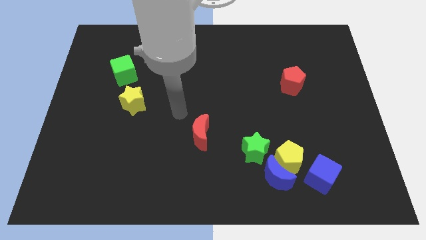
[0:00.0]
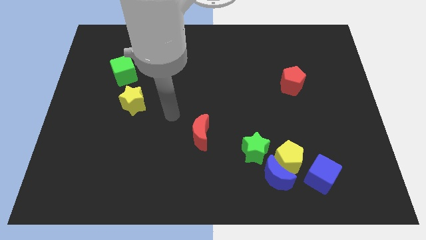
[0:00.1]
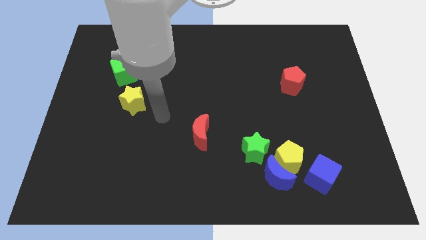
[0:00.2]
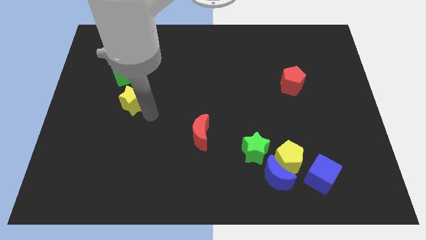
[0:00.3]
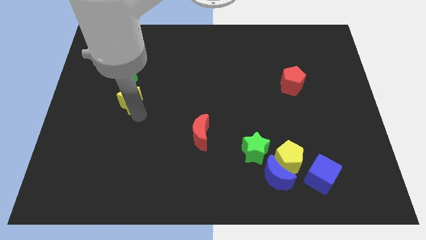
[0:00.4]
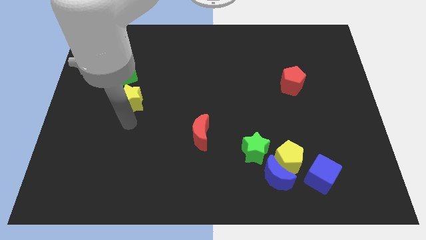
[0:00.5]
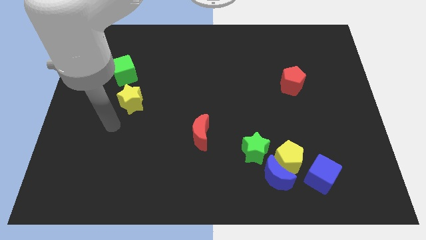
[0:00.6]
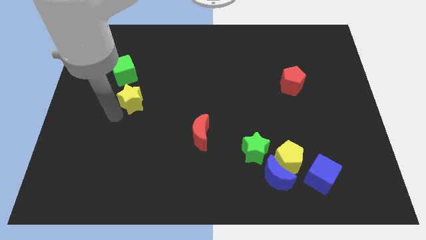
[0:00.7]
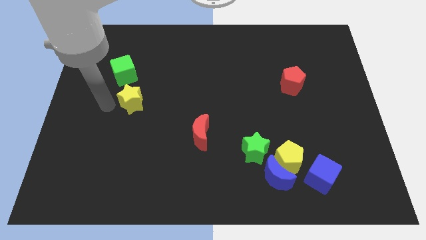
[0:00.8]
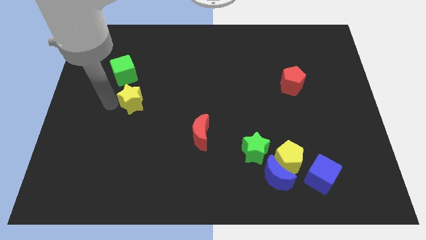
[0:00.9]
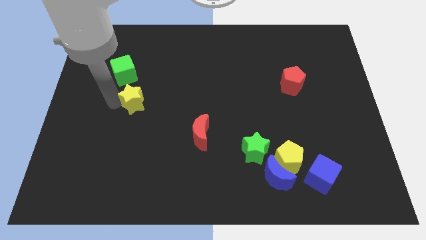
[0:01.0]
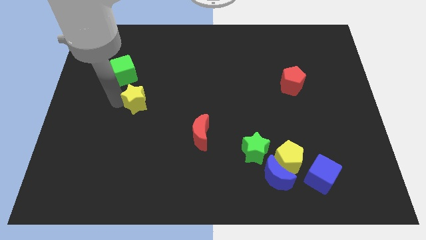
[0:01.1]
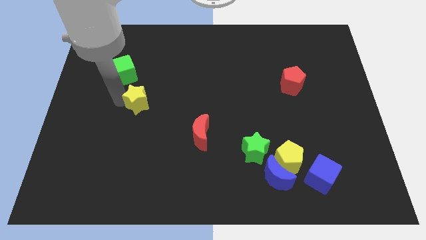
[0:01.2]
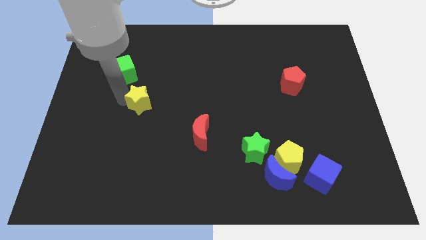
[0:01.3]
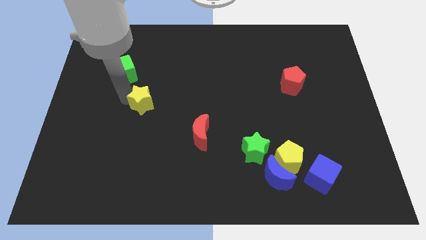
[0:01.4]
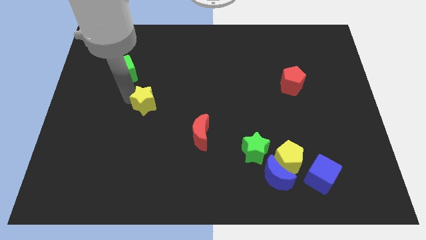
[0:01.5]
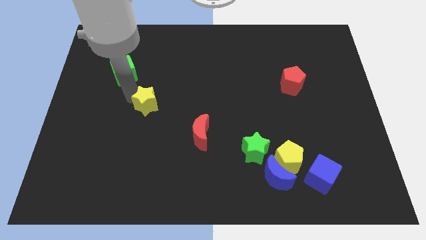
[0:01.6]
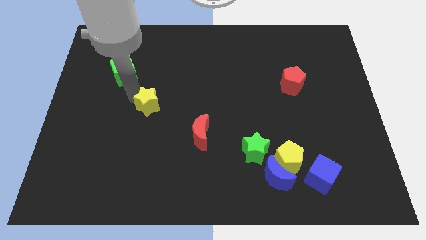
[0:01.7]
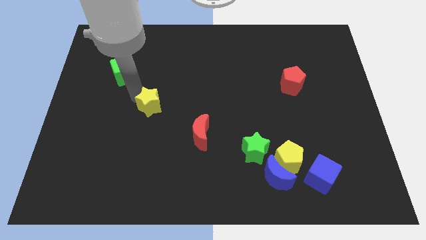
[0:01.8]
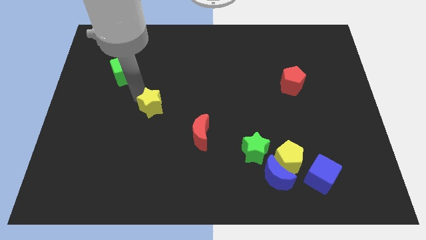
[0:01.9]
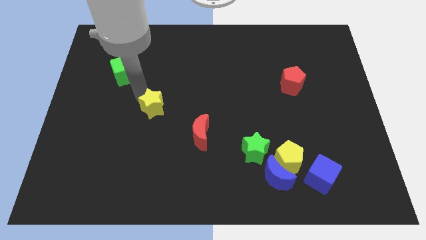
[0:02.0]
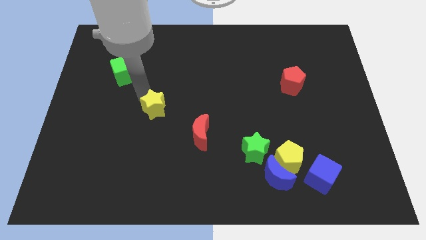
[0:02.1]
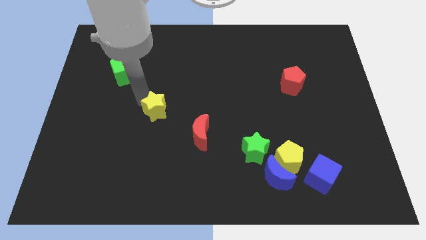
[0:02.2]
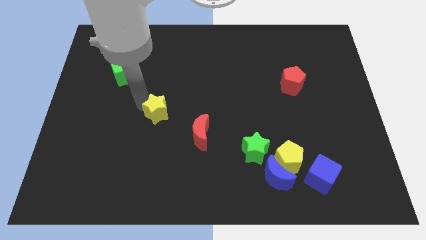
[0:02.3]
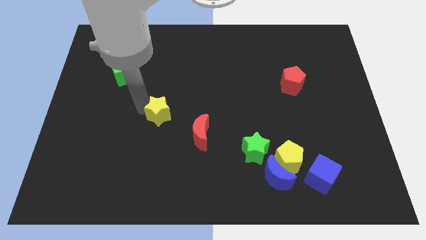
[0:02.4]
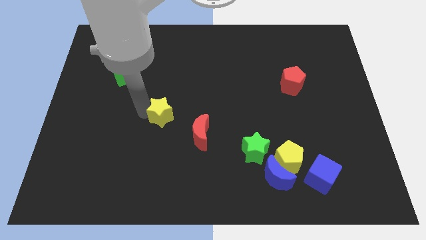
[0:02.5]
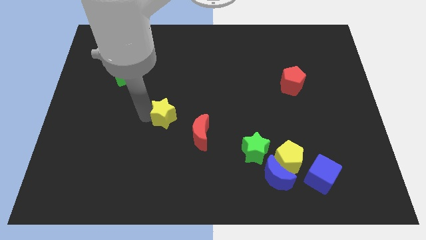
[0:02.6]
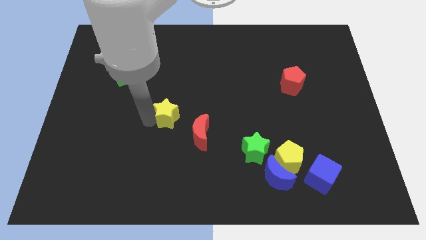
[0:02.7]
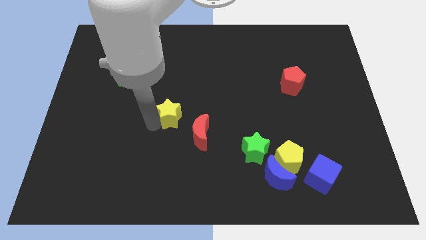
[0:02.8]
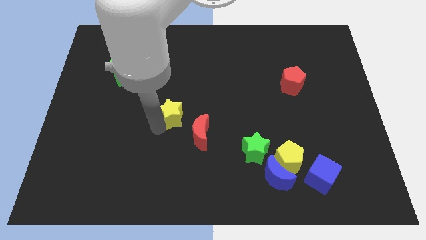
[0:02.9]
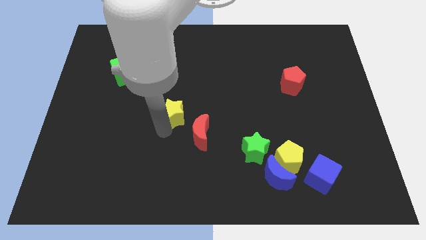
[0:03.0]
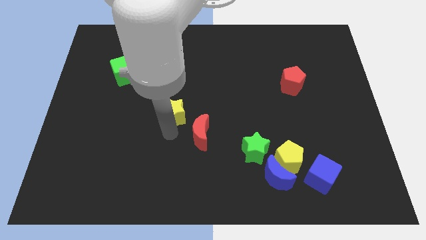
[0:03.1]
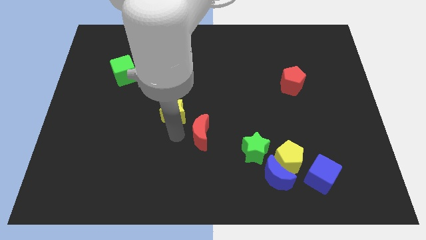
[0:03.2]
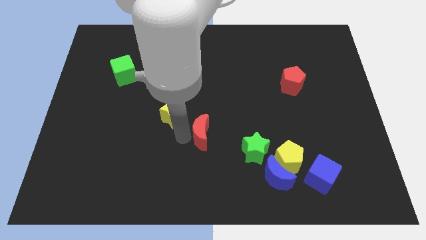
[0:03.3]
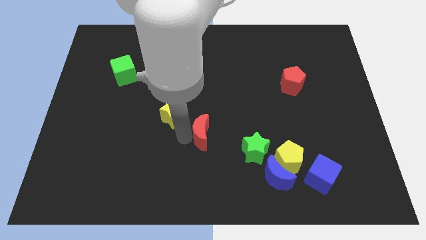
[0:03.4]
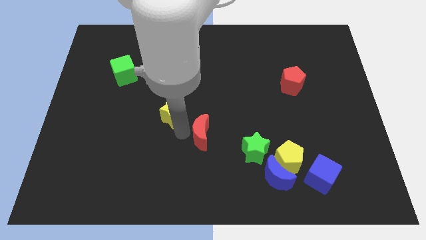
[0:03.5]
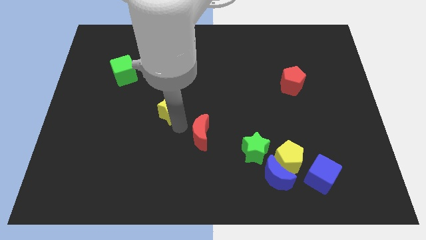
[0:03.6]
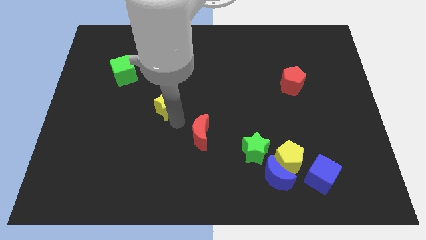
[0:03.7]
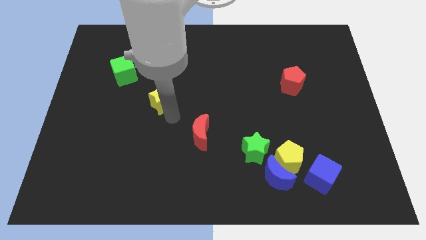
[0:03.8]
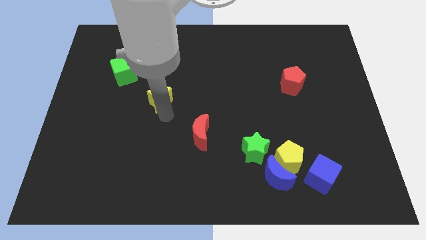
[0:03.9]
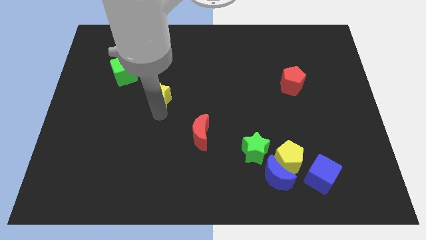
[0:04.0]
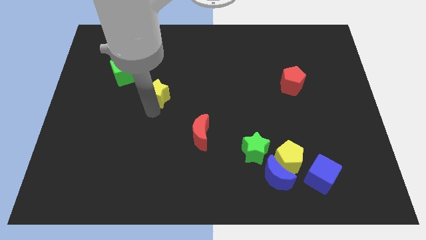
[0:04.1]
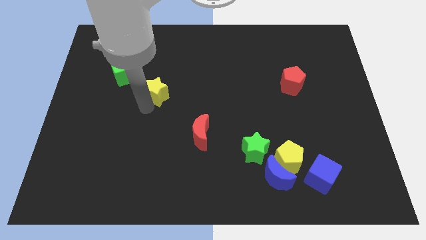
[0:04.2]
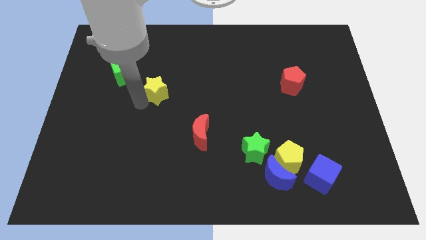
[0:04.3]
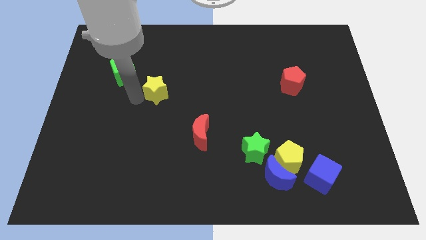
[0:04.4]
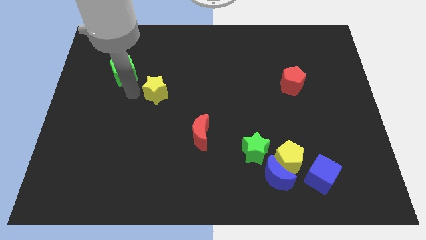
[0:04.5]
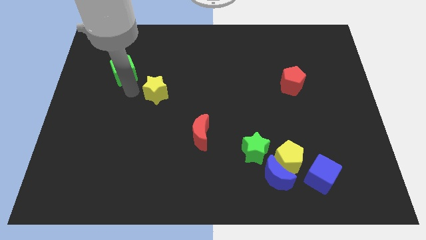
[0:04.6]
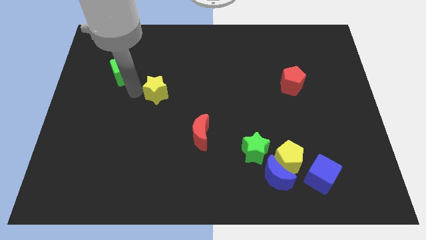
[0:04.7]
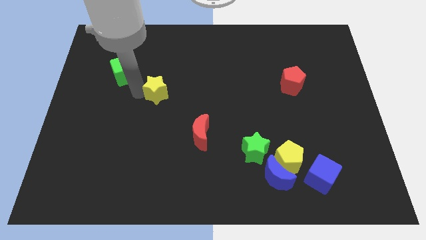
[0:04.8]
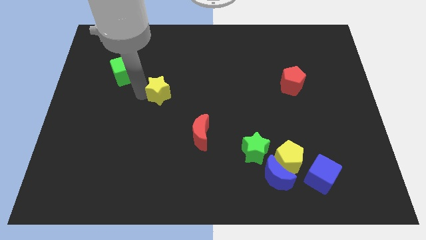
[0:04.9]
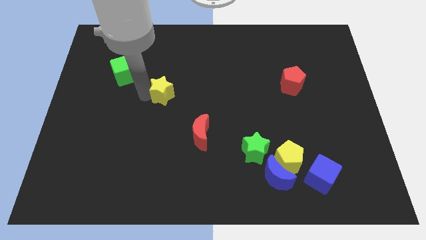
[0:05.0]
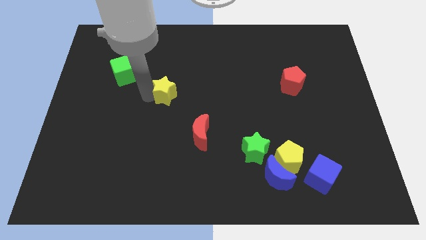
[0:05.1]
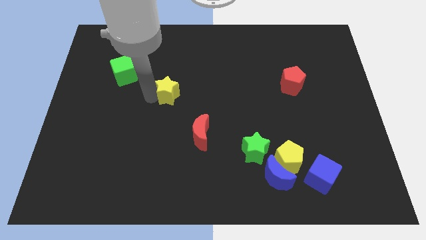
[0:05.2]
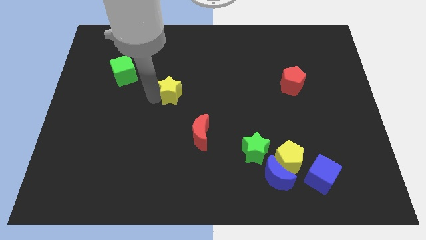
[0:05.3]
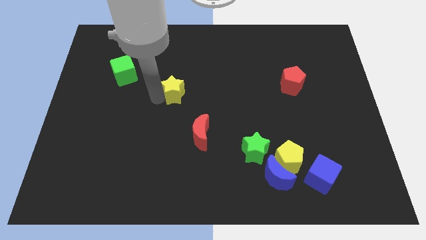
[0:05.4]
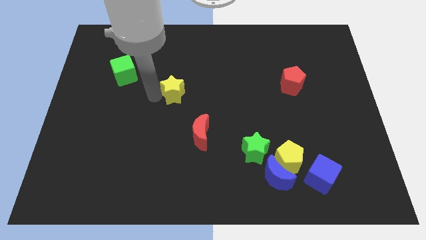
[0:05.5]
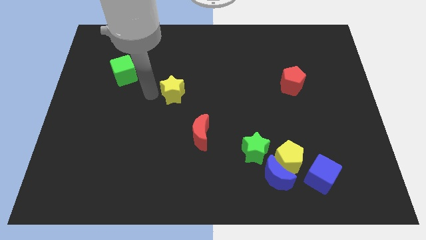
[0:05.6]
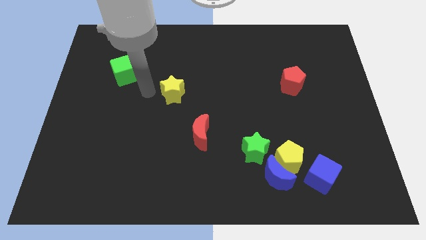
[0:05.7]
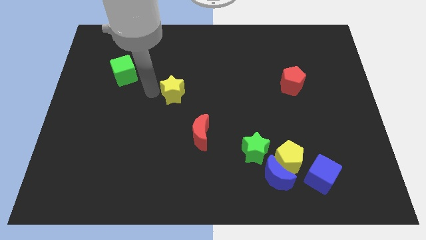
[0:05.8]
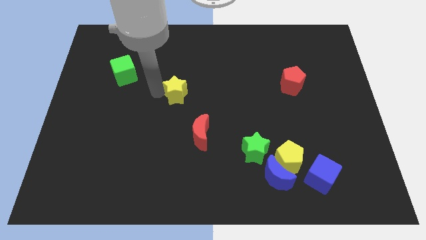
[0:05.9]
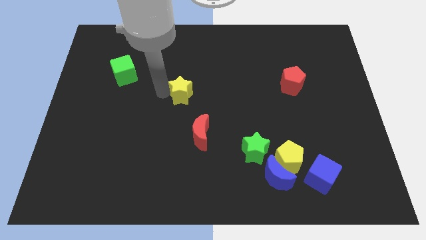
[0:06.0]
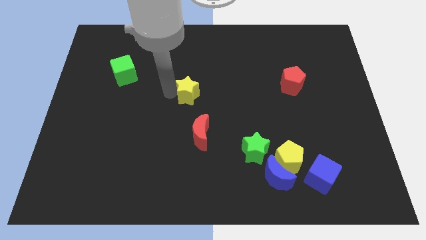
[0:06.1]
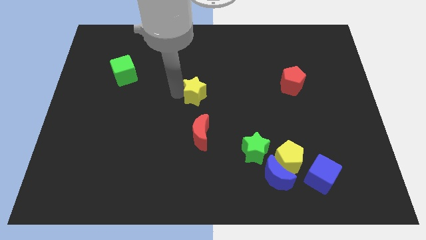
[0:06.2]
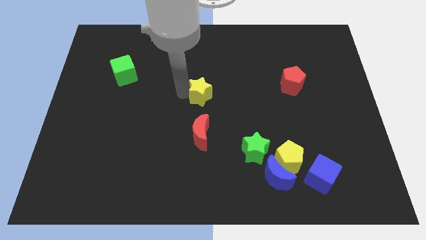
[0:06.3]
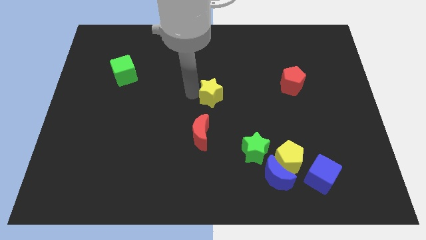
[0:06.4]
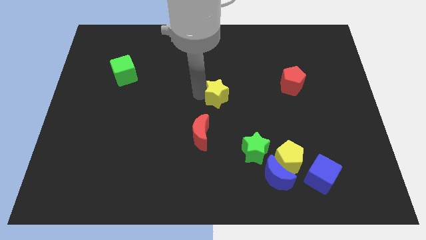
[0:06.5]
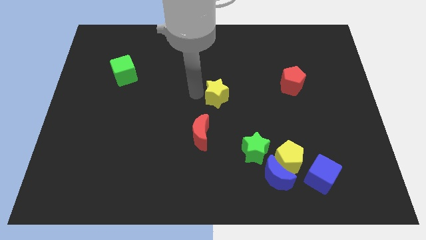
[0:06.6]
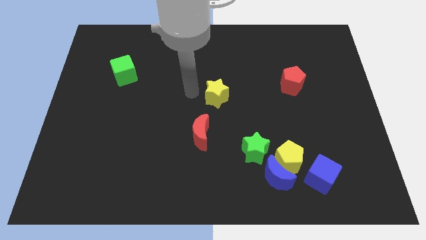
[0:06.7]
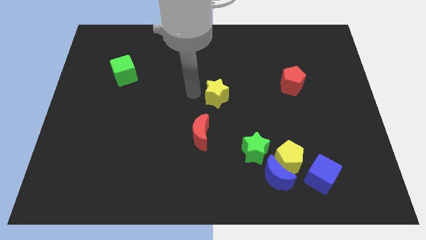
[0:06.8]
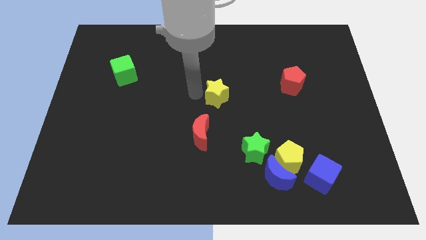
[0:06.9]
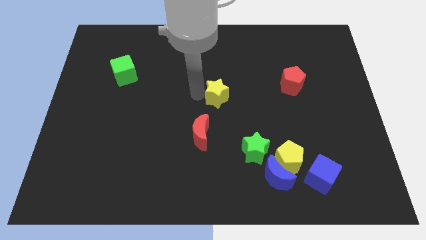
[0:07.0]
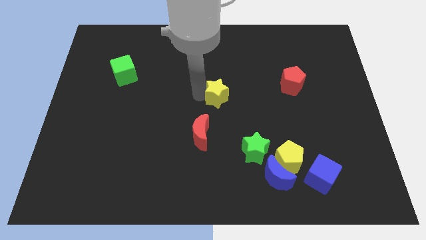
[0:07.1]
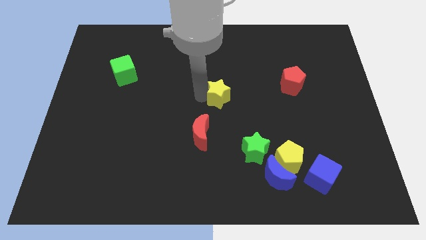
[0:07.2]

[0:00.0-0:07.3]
move the yellow star right

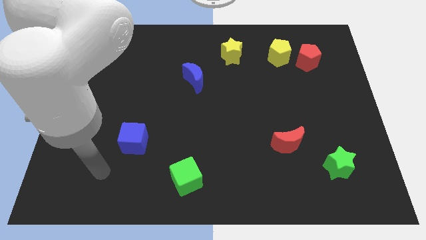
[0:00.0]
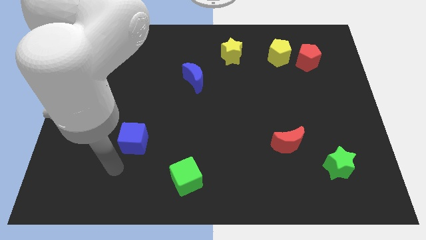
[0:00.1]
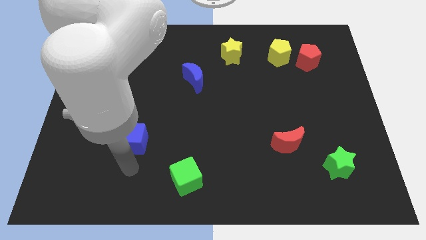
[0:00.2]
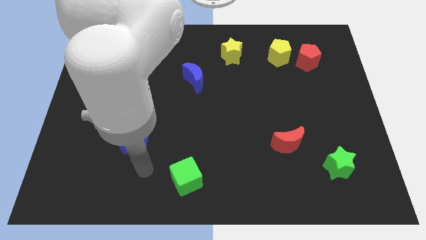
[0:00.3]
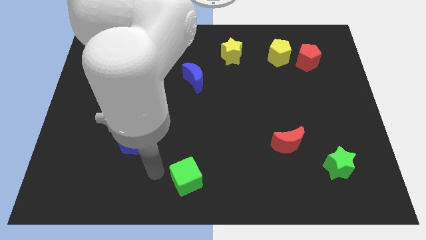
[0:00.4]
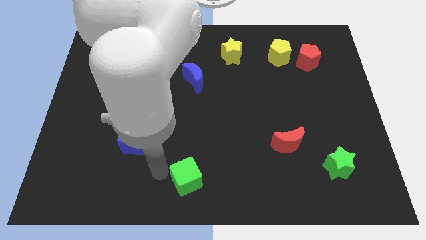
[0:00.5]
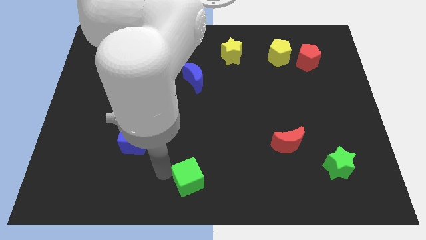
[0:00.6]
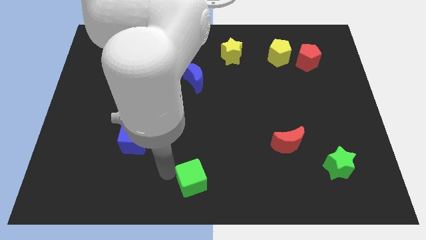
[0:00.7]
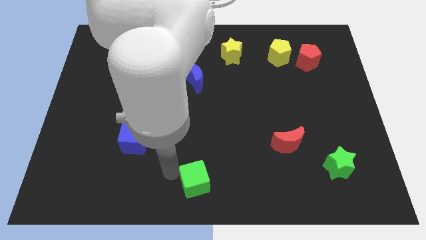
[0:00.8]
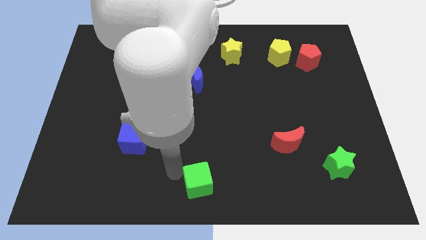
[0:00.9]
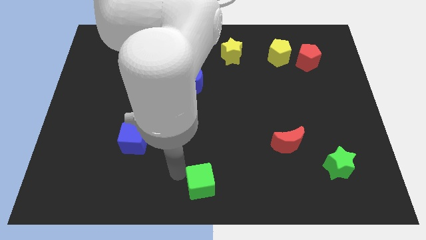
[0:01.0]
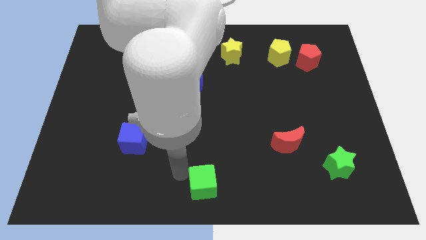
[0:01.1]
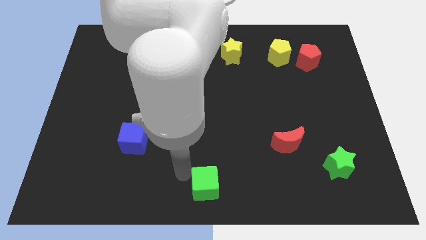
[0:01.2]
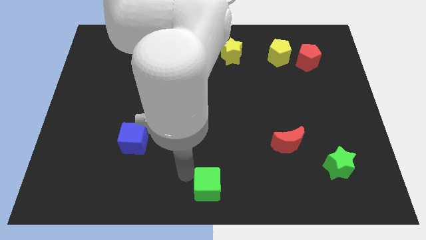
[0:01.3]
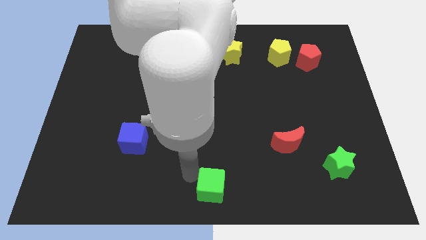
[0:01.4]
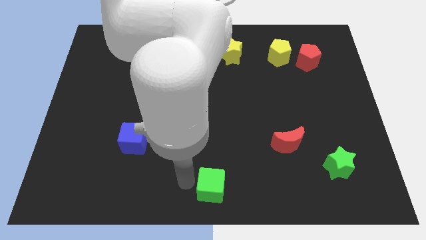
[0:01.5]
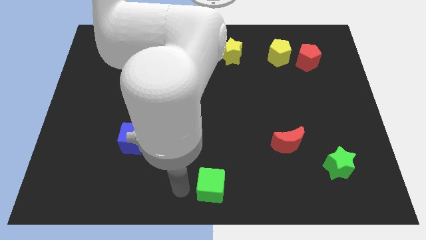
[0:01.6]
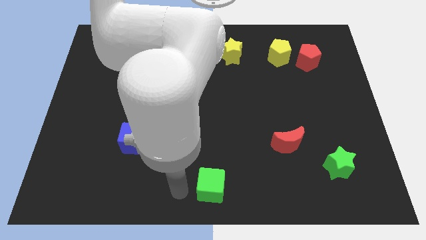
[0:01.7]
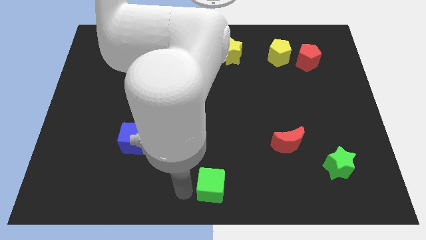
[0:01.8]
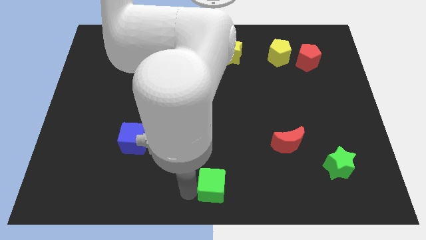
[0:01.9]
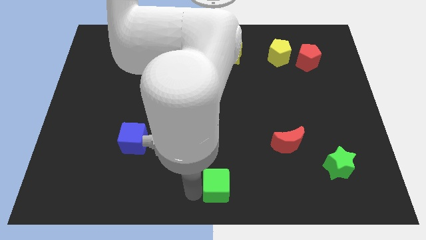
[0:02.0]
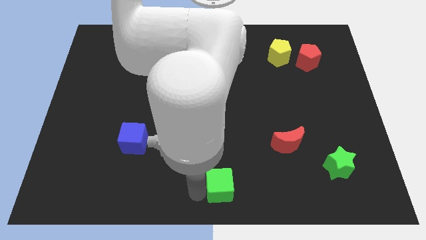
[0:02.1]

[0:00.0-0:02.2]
push the green cube to the right a little bit
